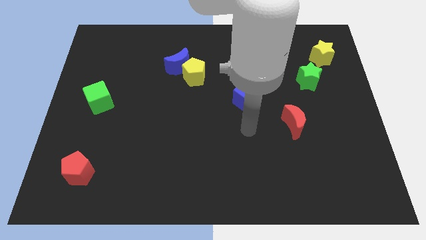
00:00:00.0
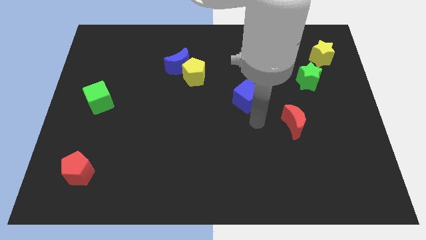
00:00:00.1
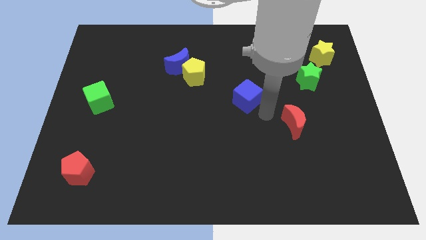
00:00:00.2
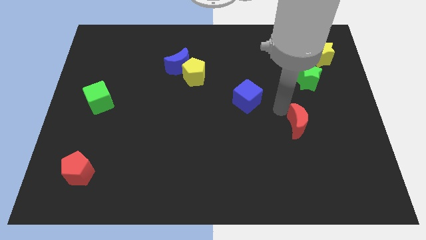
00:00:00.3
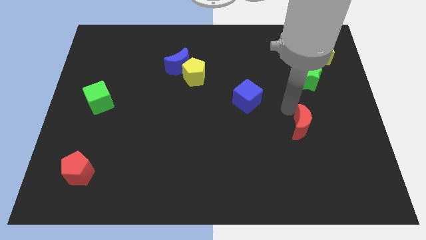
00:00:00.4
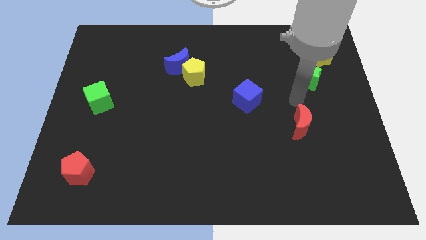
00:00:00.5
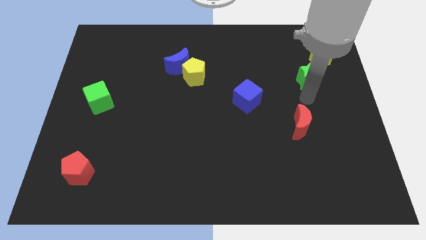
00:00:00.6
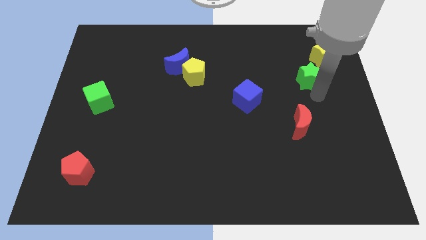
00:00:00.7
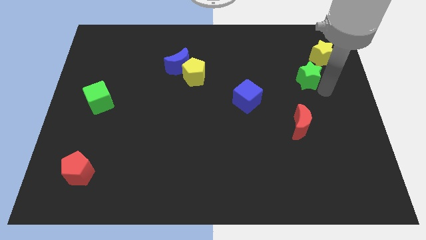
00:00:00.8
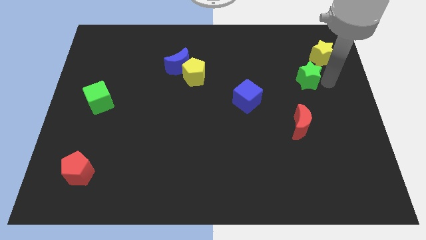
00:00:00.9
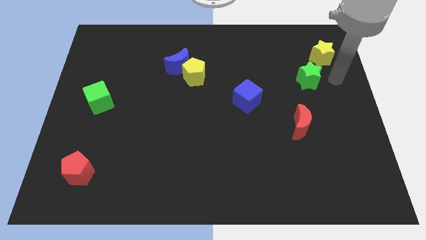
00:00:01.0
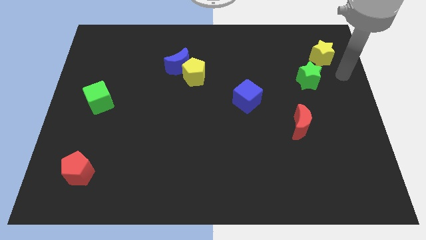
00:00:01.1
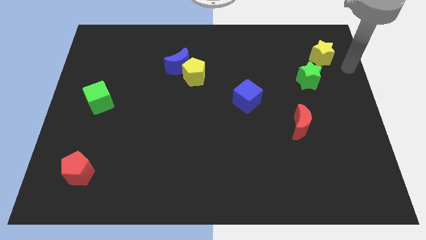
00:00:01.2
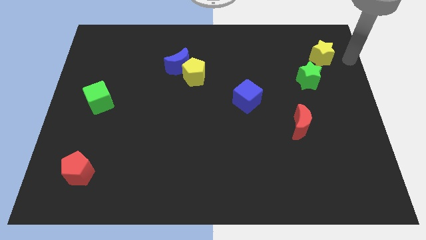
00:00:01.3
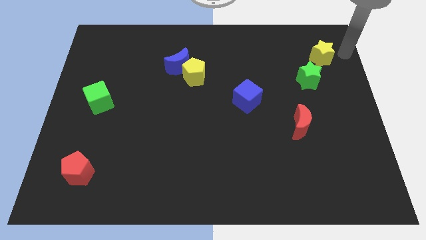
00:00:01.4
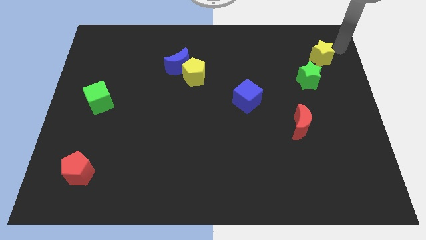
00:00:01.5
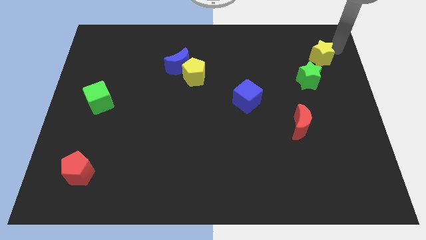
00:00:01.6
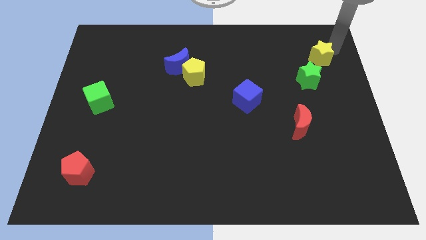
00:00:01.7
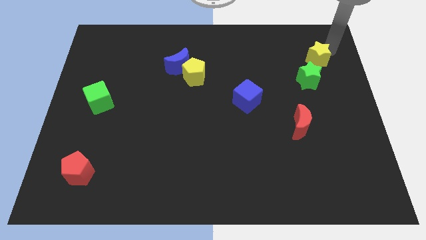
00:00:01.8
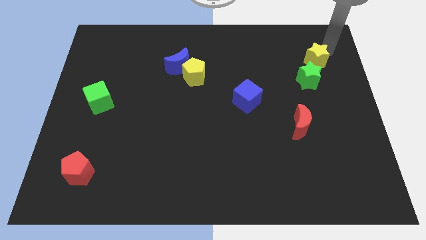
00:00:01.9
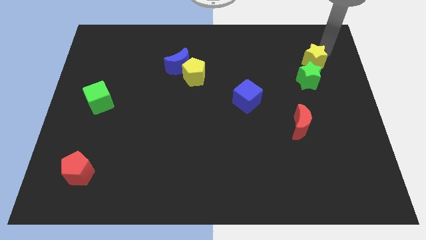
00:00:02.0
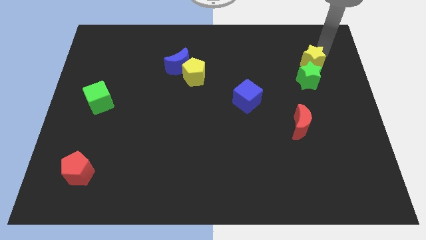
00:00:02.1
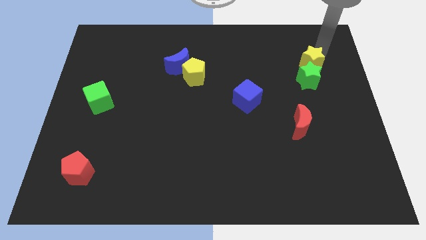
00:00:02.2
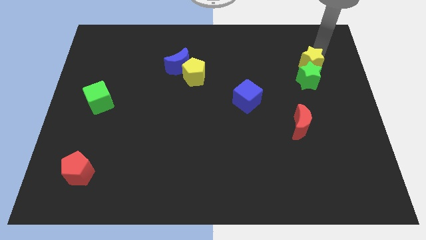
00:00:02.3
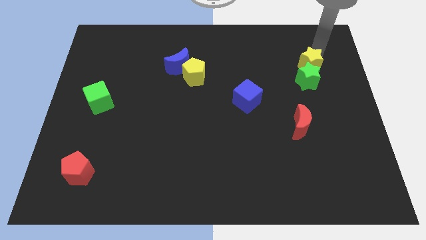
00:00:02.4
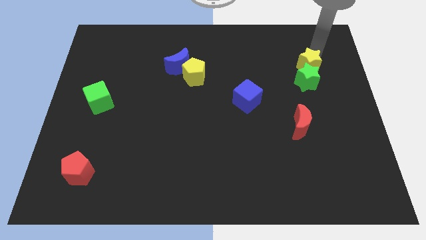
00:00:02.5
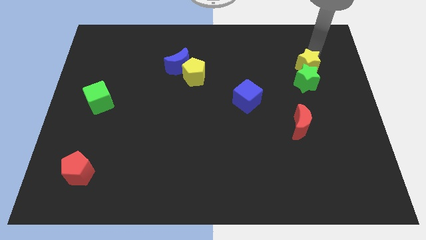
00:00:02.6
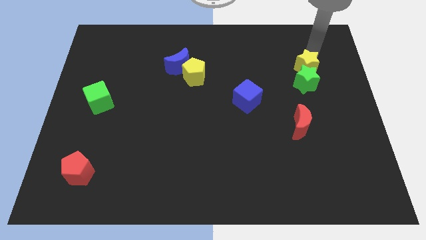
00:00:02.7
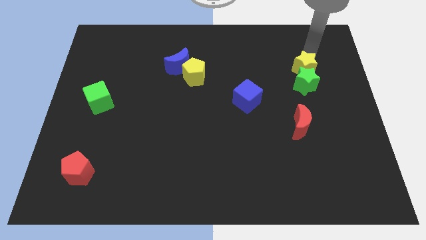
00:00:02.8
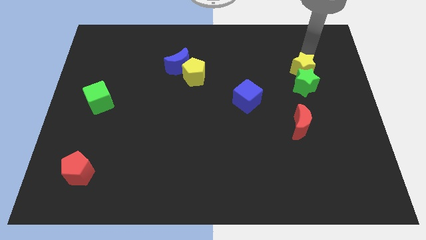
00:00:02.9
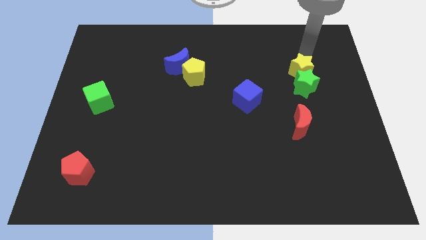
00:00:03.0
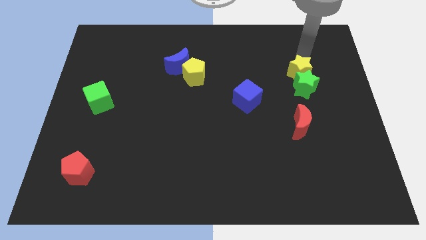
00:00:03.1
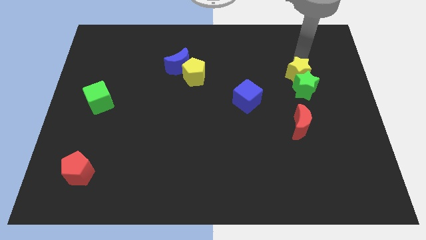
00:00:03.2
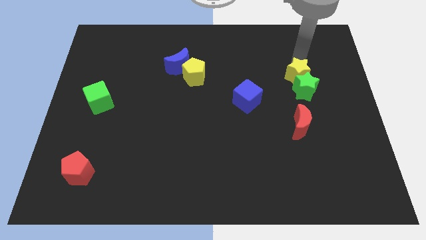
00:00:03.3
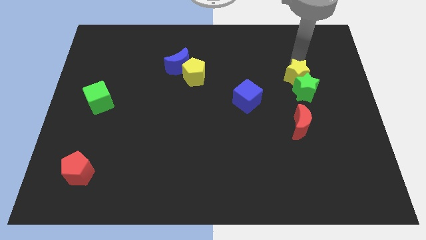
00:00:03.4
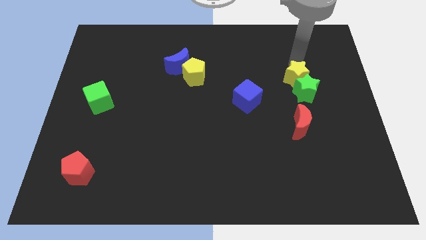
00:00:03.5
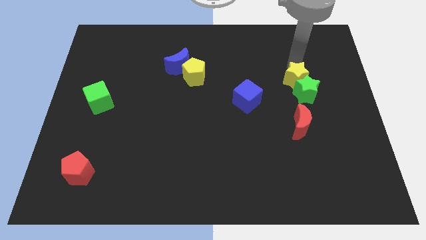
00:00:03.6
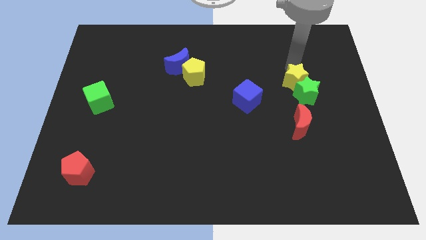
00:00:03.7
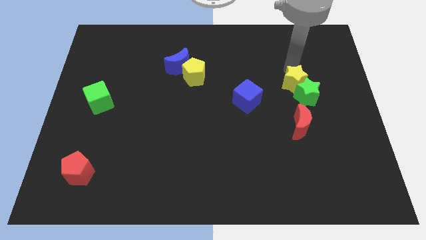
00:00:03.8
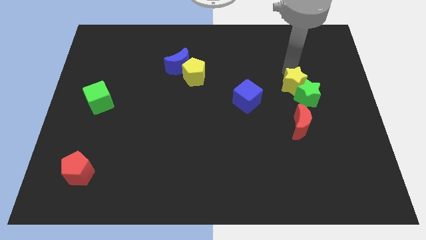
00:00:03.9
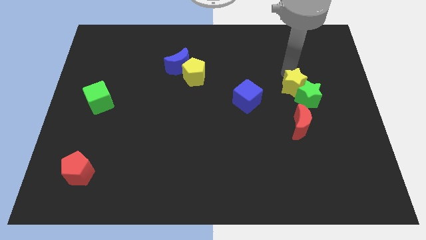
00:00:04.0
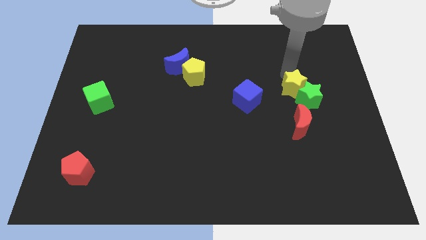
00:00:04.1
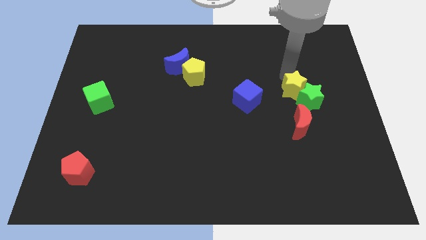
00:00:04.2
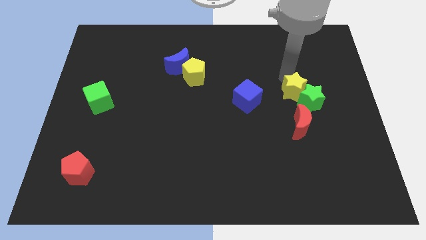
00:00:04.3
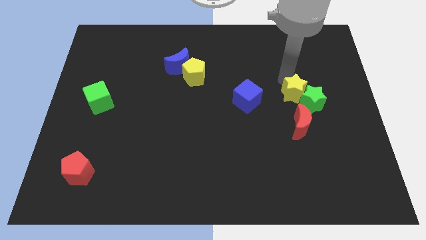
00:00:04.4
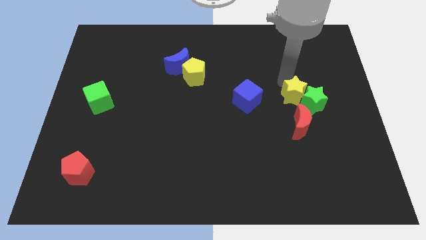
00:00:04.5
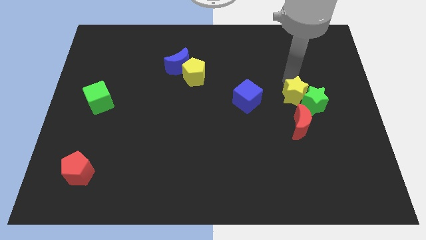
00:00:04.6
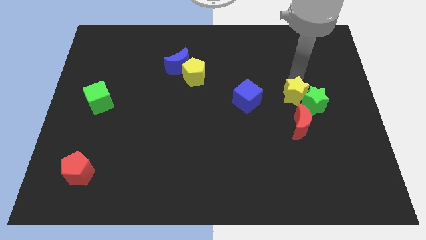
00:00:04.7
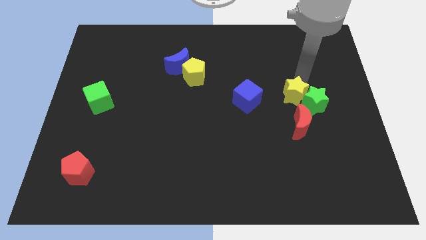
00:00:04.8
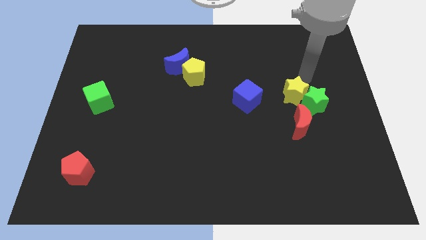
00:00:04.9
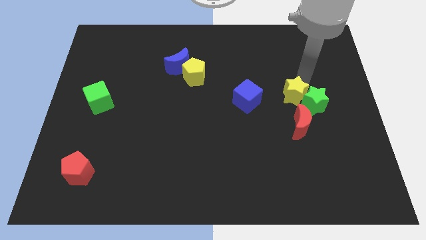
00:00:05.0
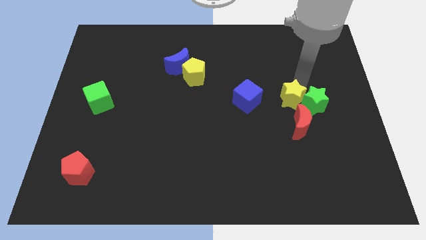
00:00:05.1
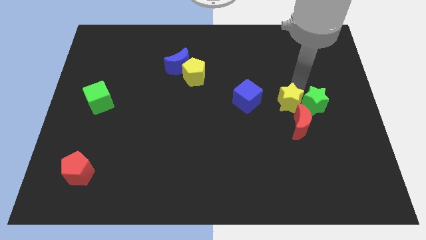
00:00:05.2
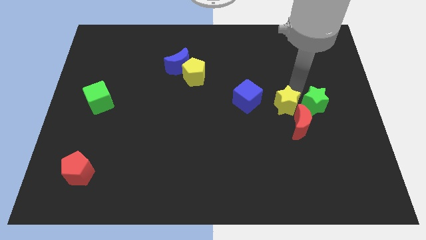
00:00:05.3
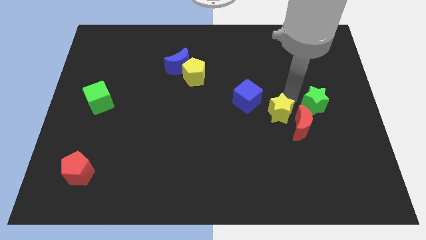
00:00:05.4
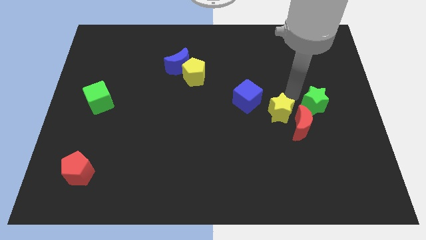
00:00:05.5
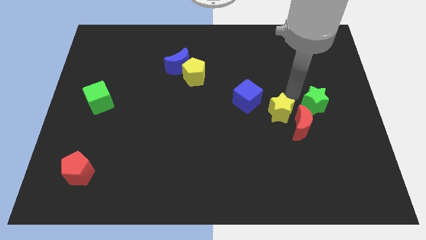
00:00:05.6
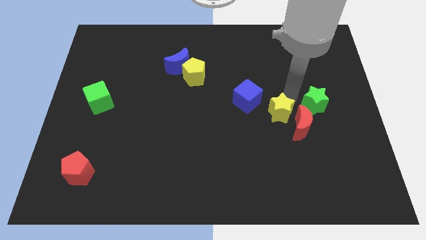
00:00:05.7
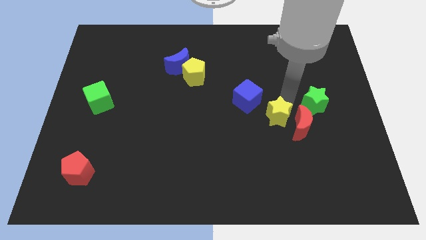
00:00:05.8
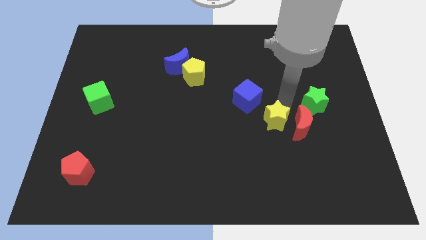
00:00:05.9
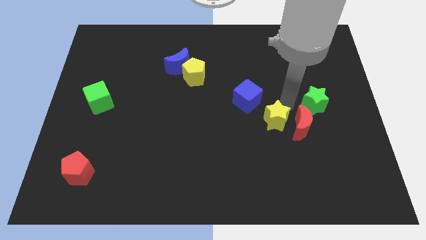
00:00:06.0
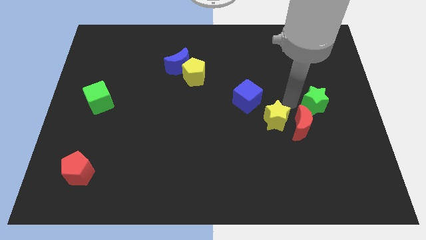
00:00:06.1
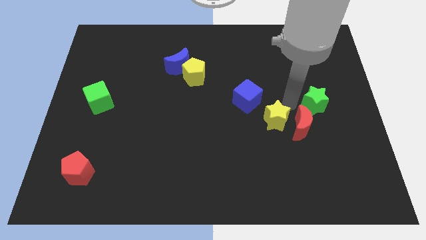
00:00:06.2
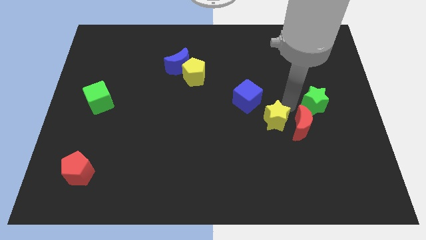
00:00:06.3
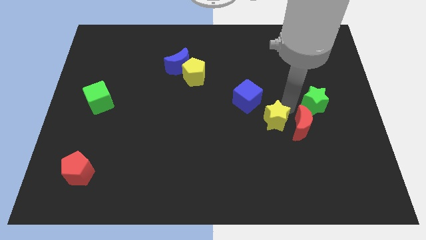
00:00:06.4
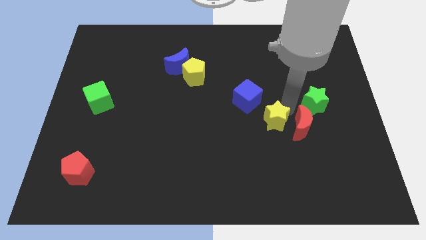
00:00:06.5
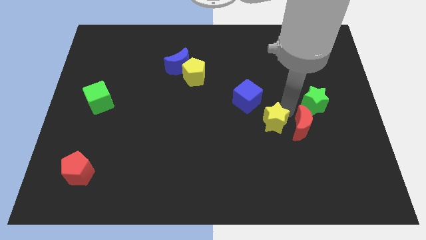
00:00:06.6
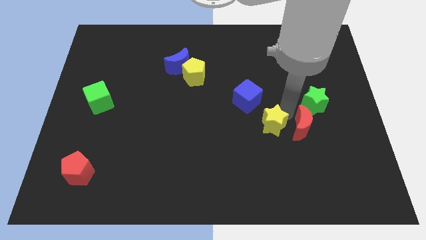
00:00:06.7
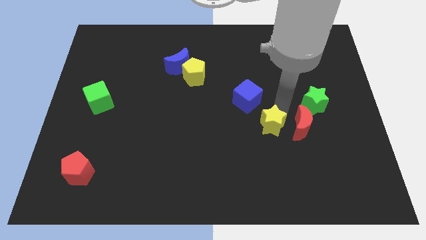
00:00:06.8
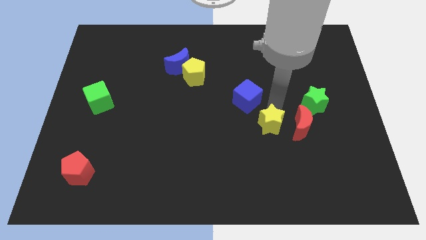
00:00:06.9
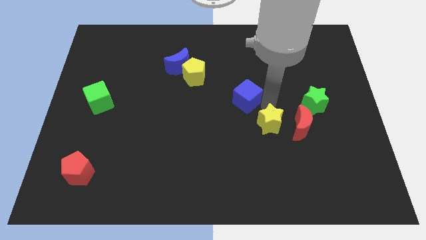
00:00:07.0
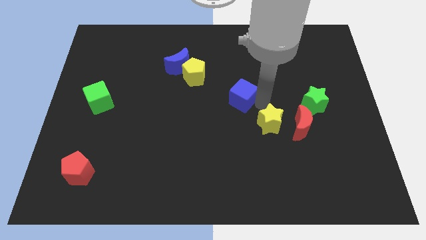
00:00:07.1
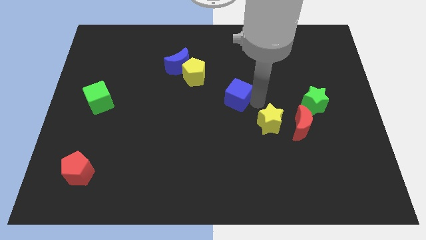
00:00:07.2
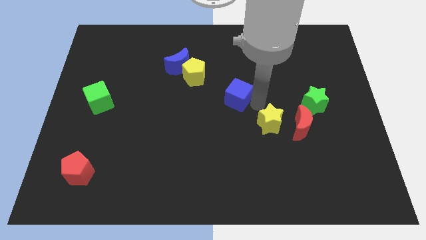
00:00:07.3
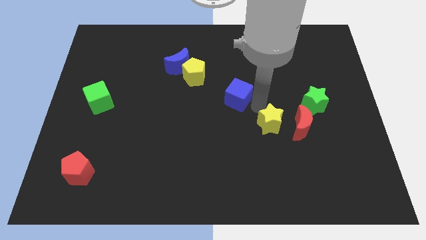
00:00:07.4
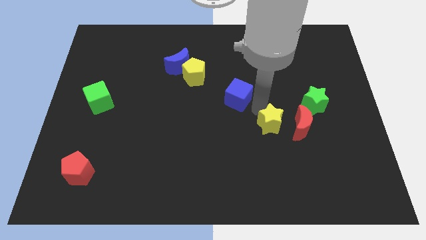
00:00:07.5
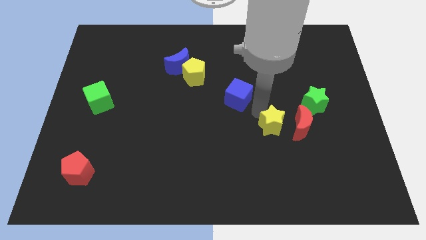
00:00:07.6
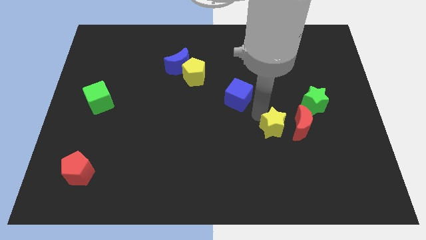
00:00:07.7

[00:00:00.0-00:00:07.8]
slide the yellow star diagonally down and to the left of the red moon
